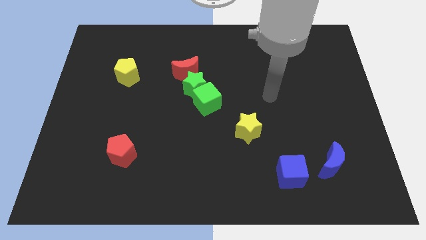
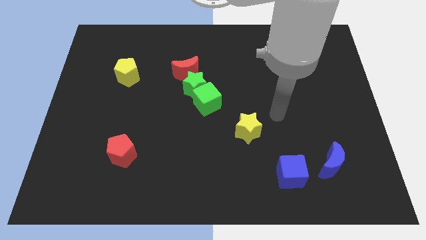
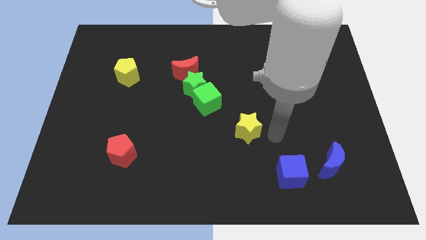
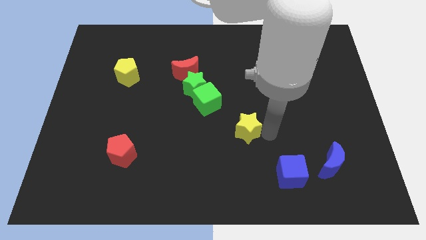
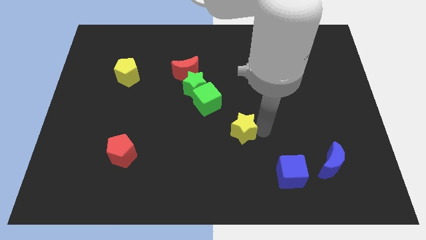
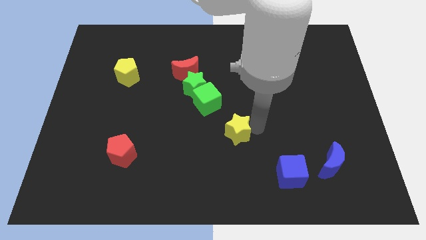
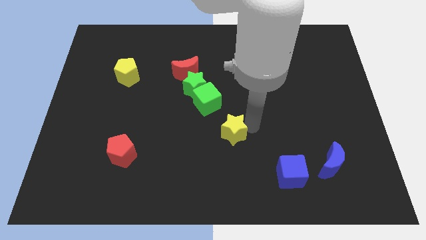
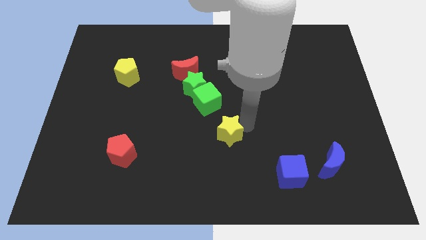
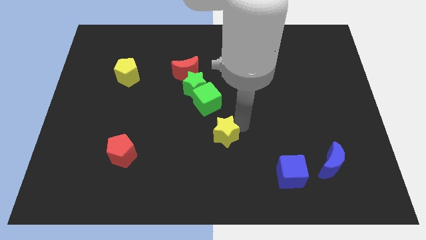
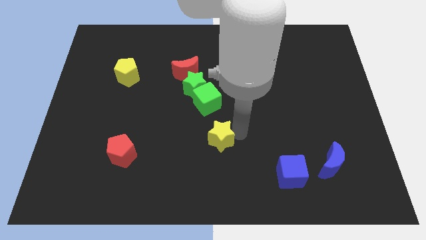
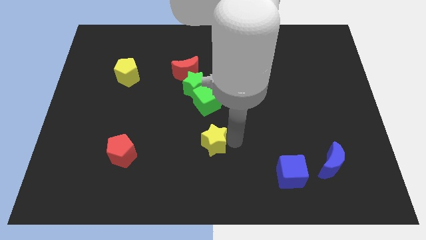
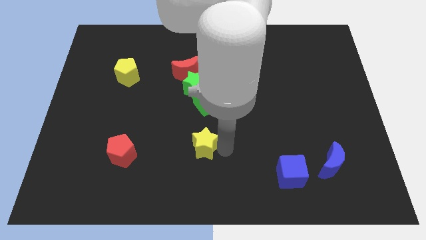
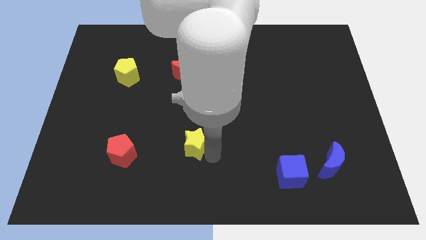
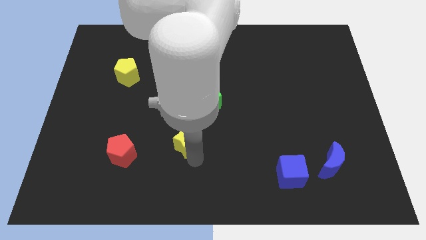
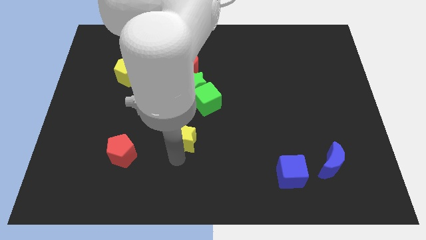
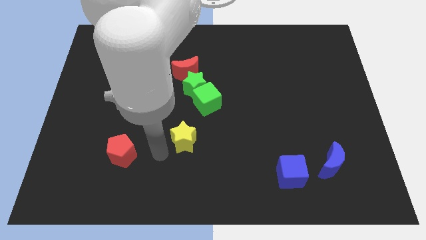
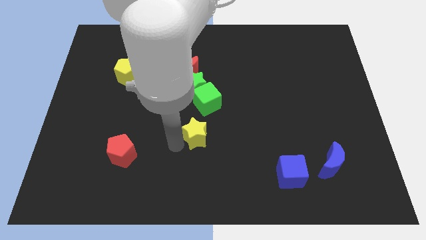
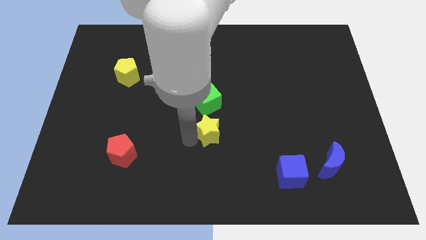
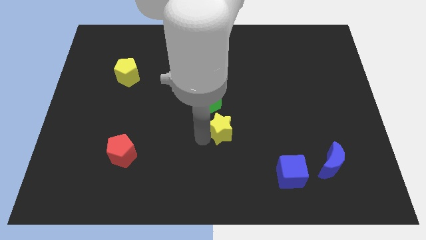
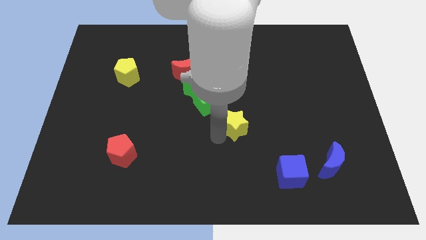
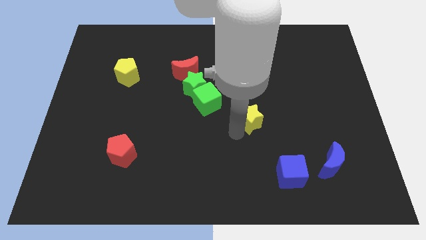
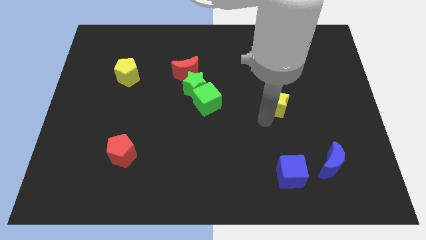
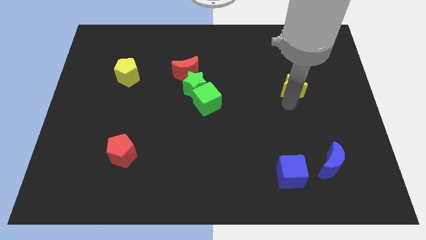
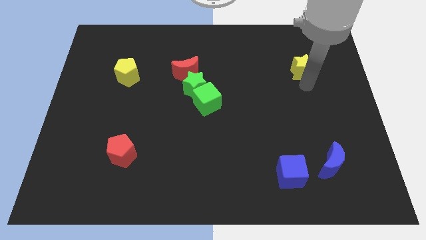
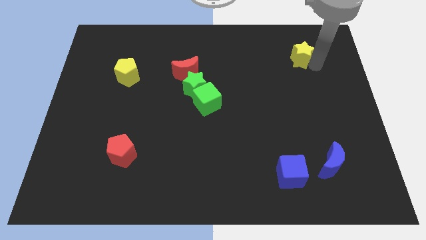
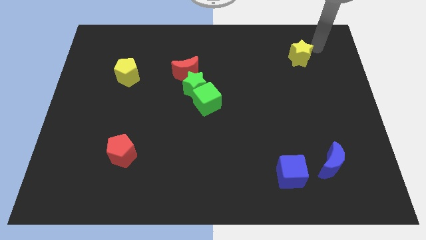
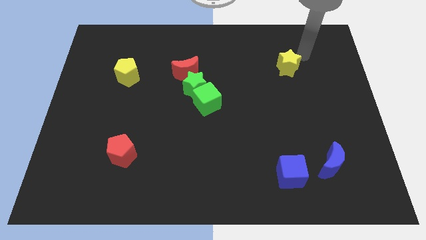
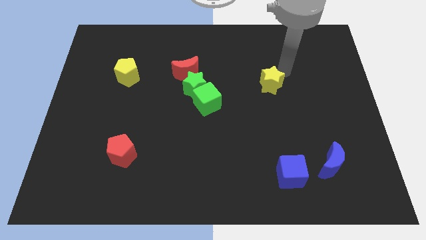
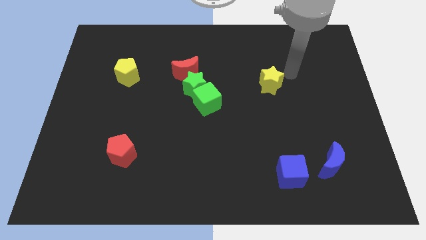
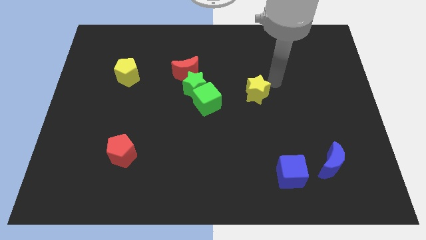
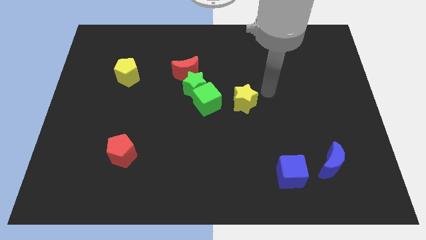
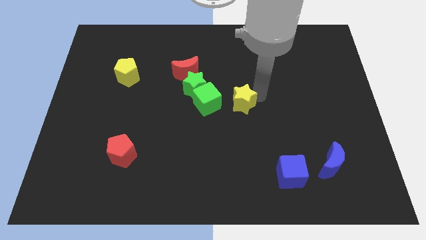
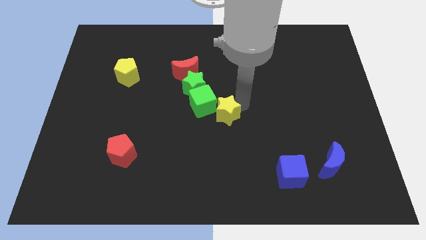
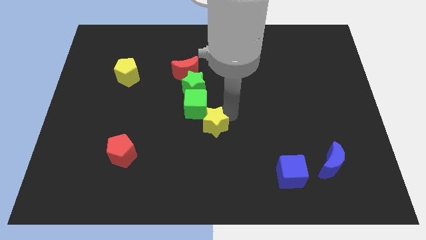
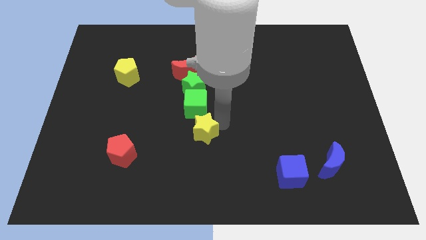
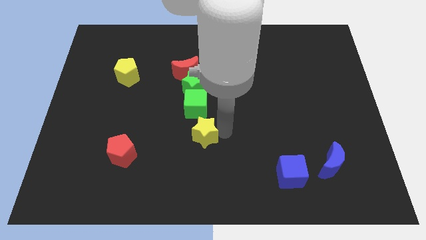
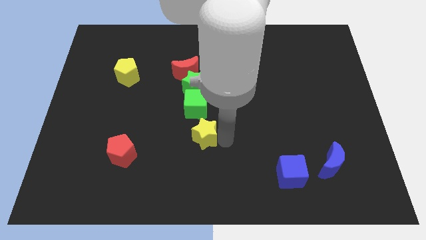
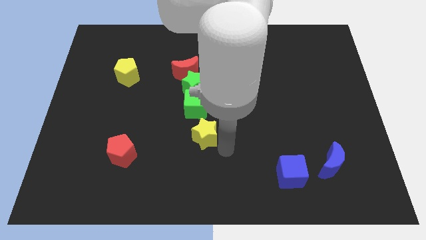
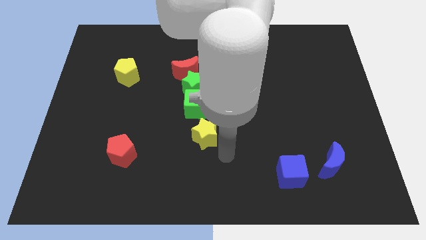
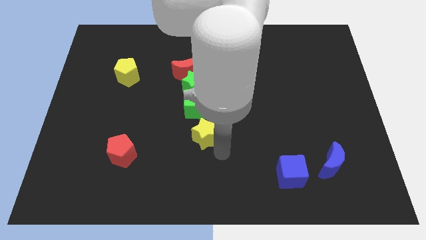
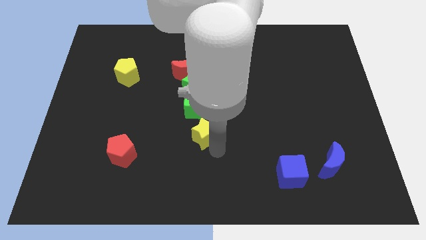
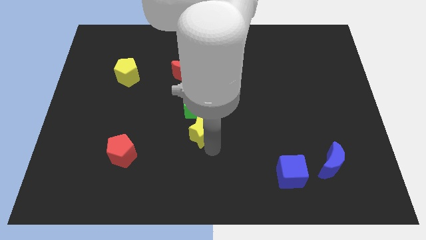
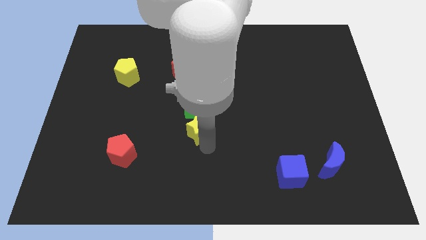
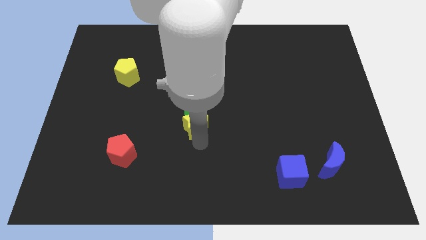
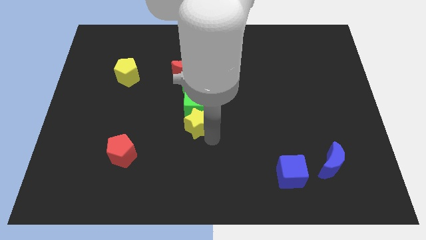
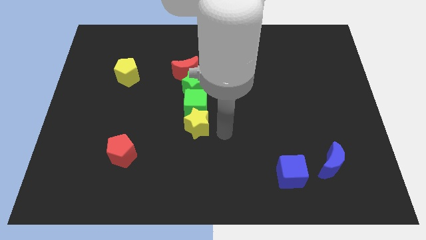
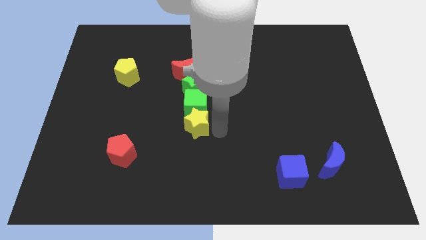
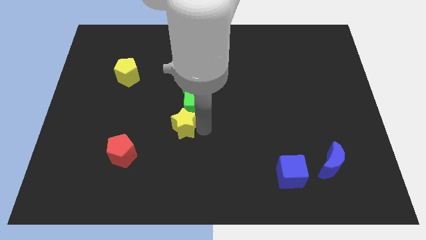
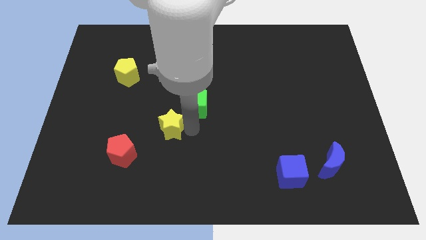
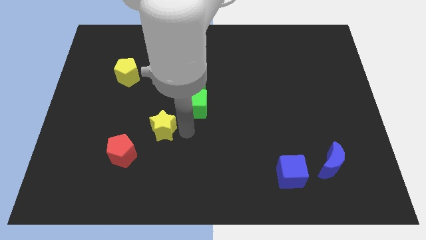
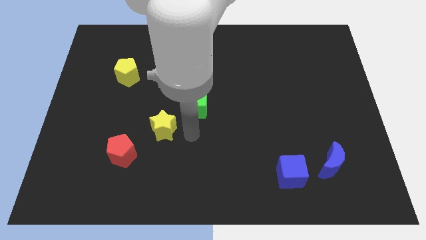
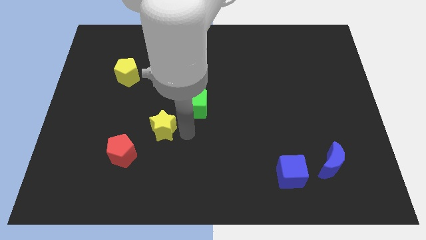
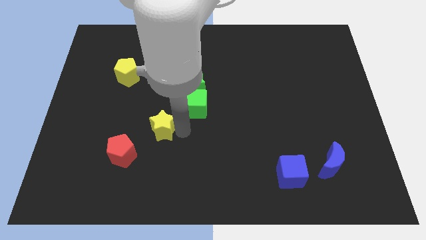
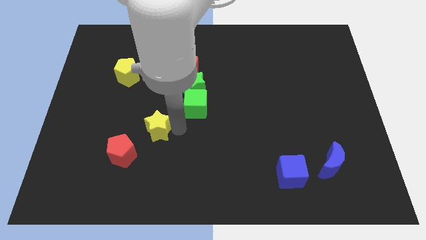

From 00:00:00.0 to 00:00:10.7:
move the yellow star to the left

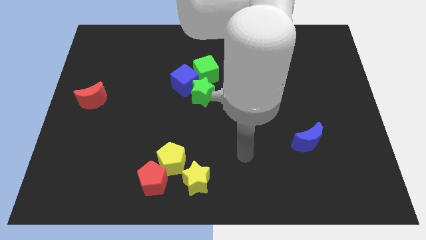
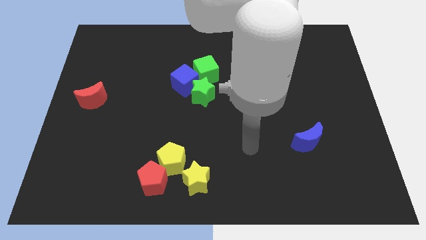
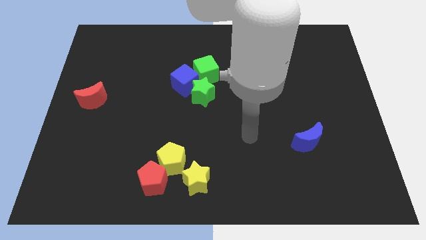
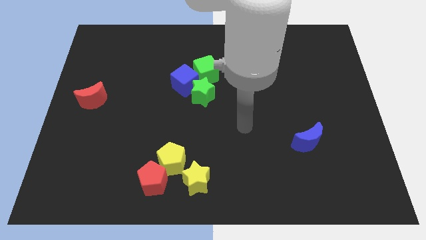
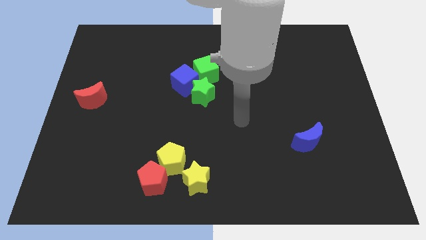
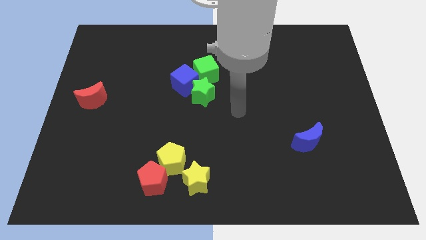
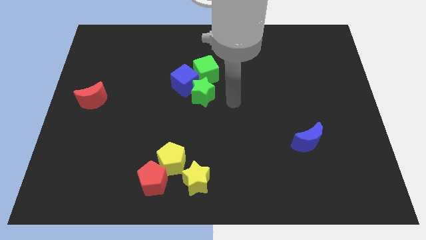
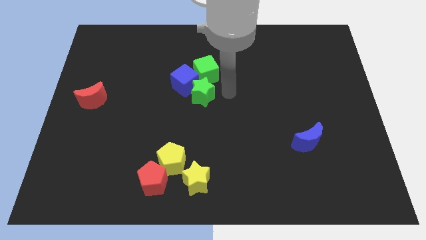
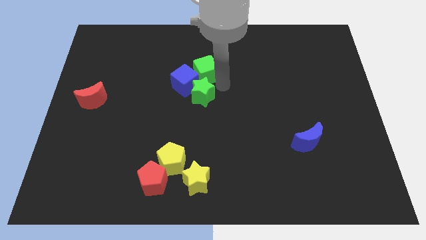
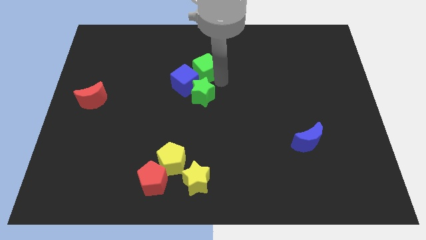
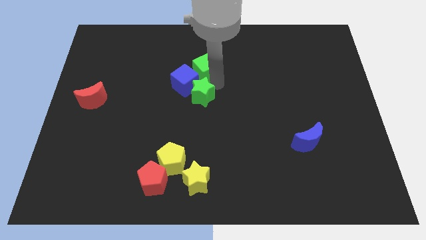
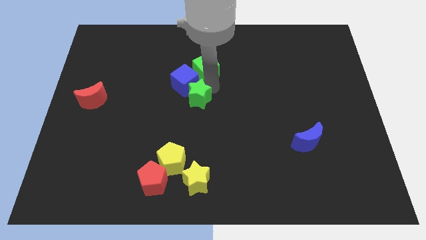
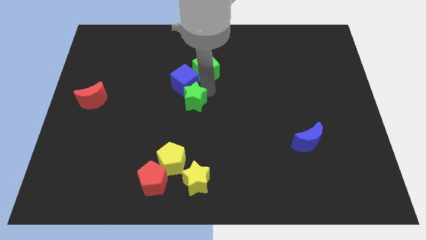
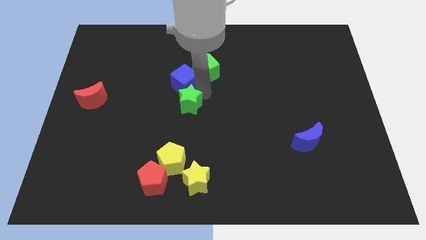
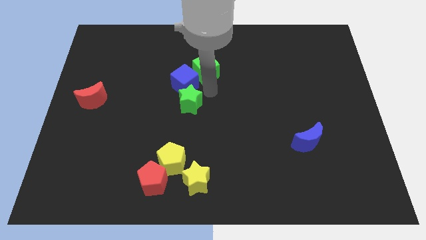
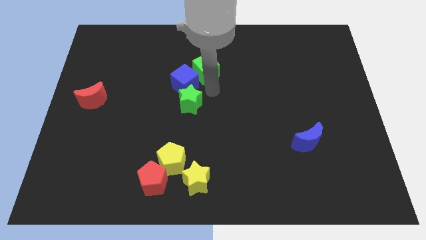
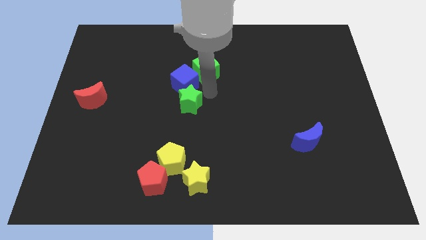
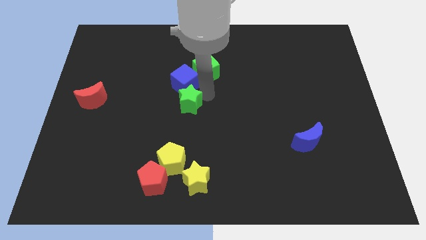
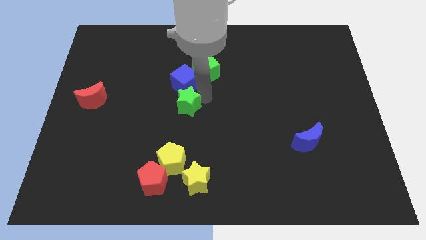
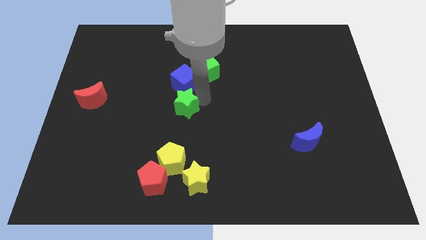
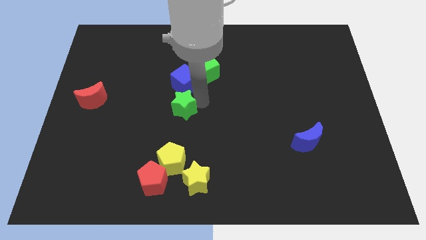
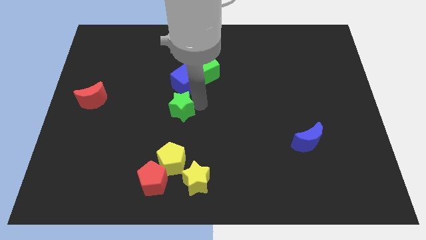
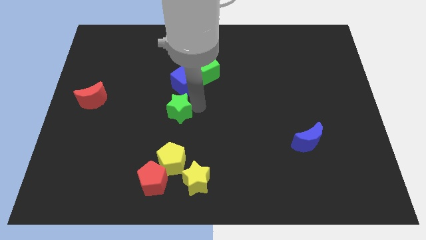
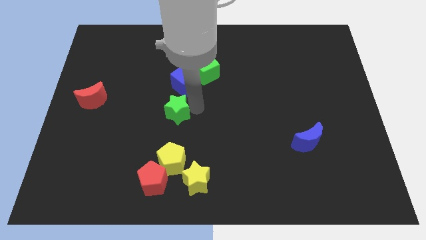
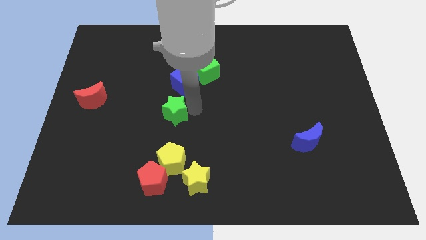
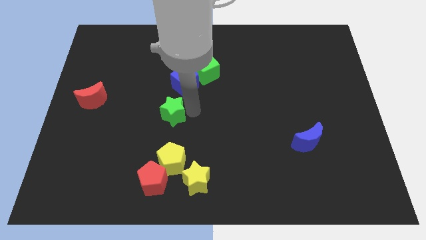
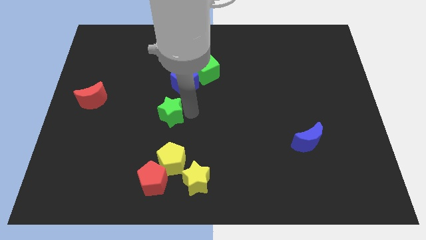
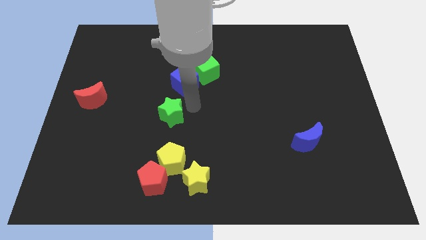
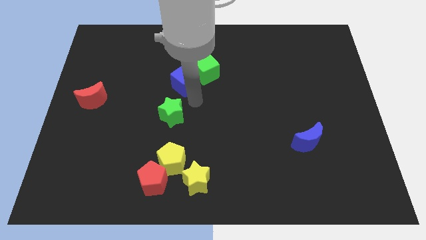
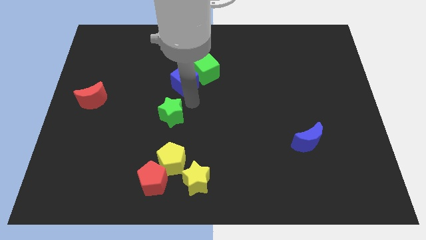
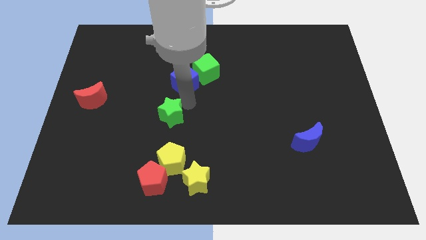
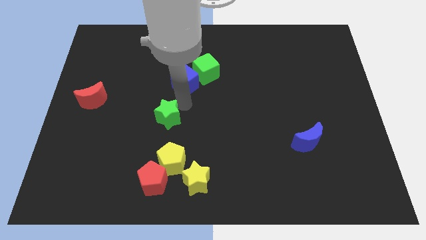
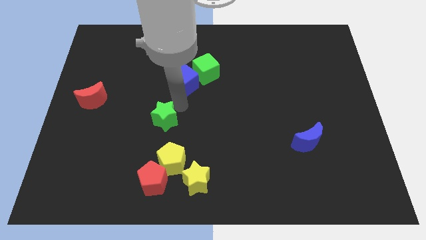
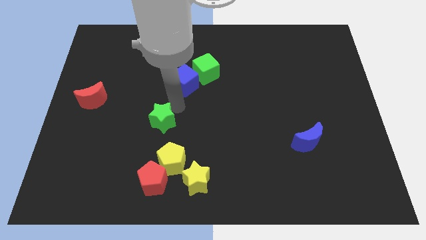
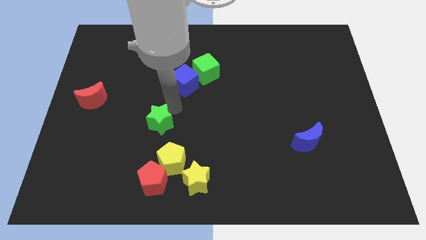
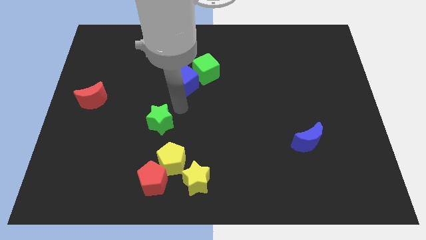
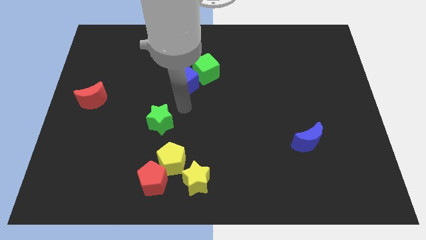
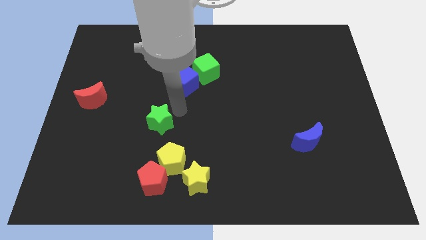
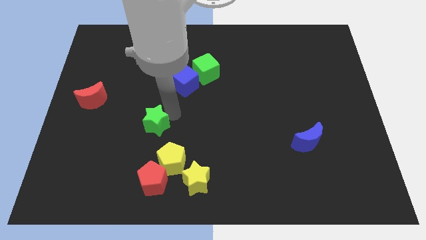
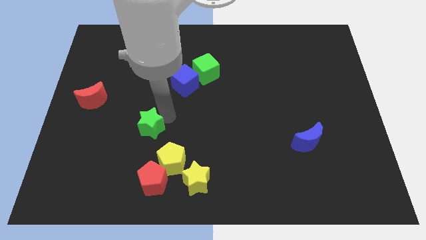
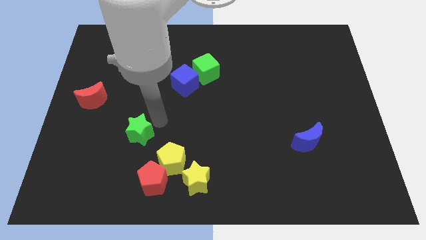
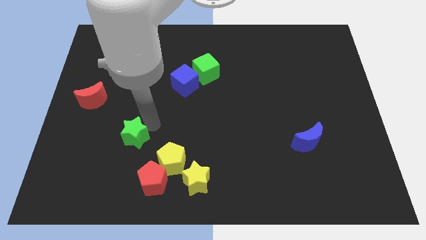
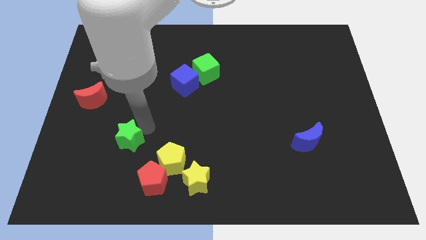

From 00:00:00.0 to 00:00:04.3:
slide the green star diagonally downwards and left
